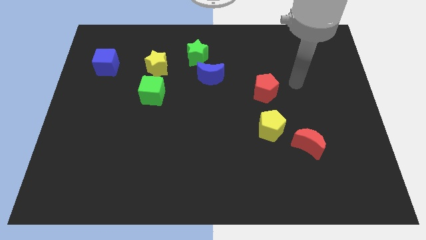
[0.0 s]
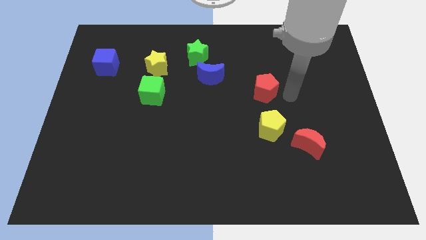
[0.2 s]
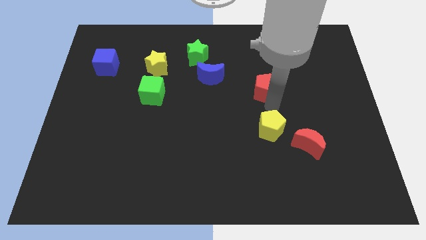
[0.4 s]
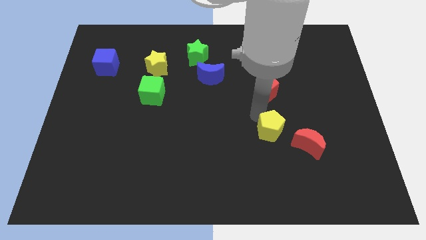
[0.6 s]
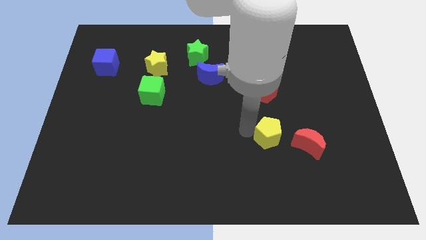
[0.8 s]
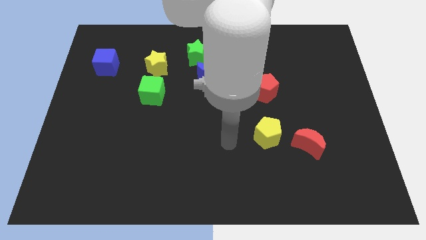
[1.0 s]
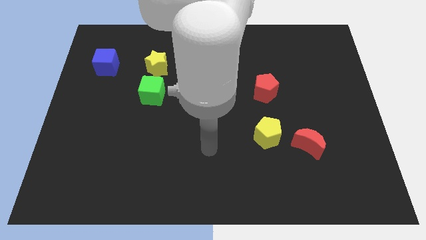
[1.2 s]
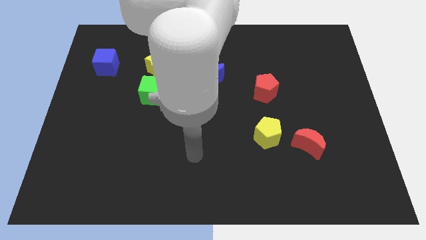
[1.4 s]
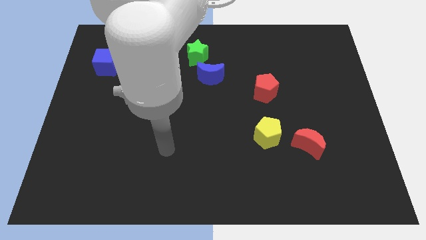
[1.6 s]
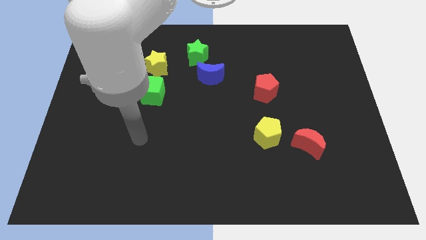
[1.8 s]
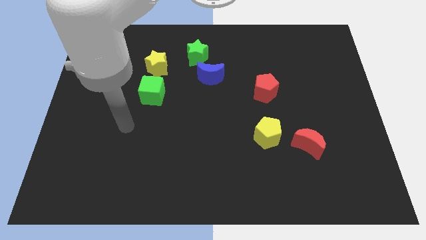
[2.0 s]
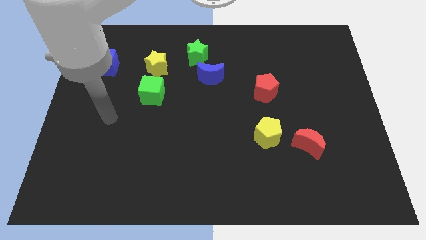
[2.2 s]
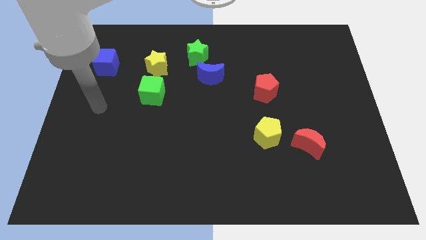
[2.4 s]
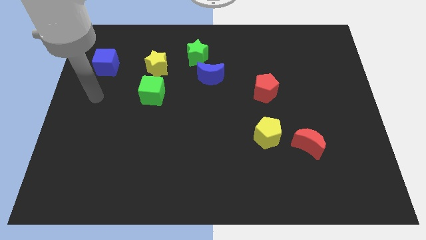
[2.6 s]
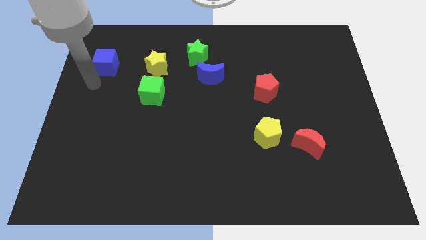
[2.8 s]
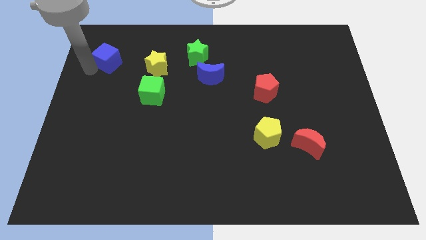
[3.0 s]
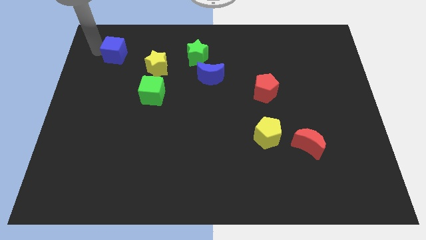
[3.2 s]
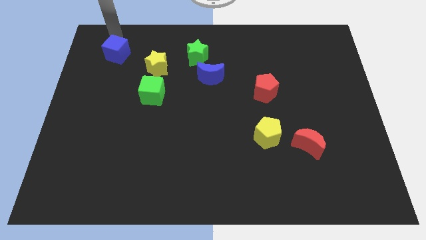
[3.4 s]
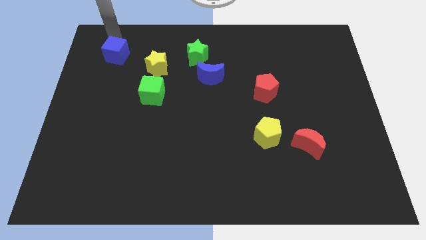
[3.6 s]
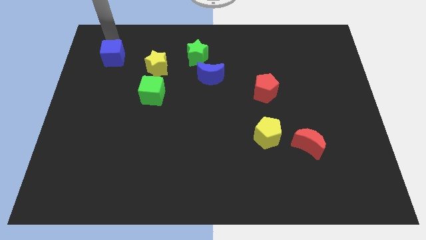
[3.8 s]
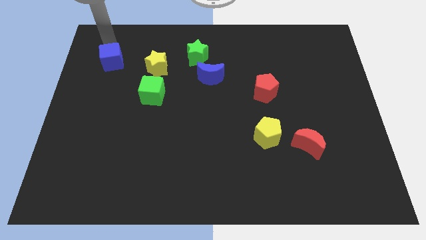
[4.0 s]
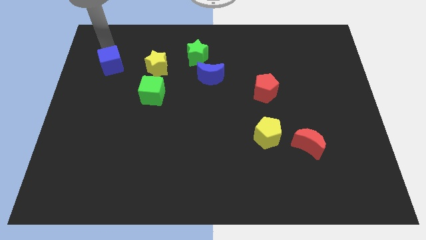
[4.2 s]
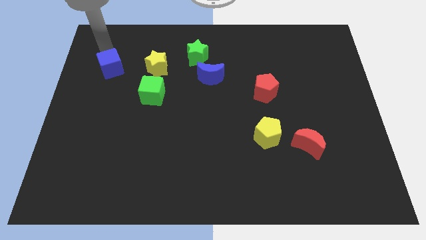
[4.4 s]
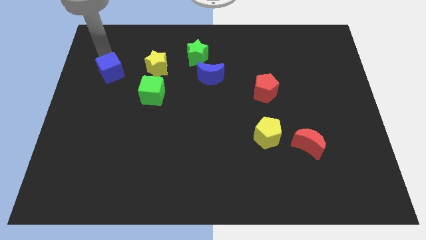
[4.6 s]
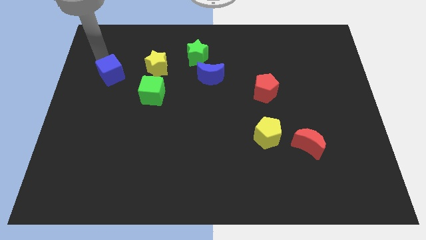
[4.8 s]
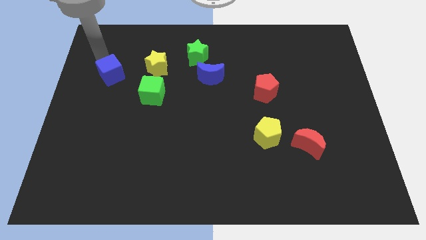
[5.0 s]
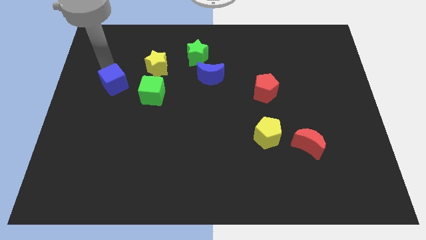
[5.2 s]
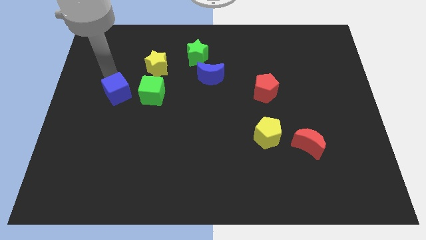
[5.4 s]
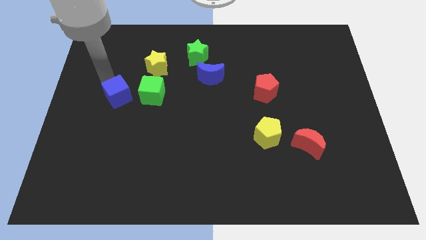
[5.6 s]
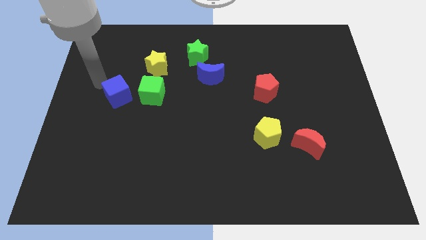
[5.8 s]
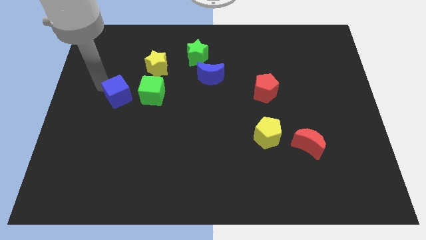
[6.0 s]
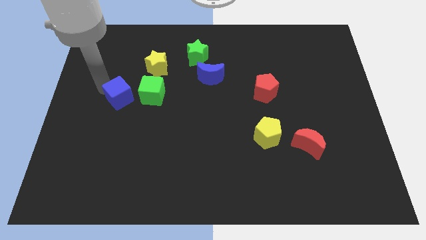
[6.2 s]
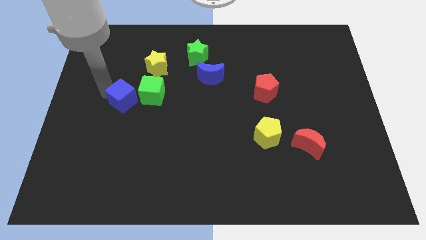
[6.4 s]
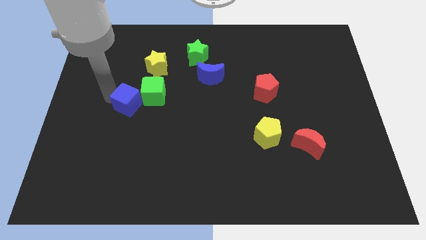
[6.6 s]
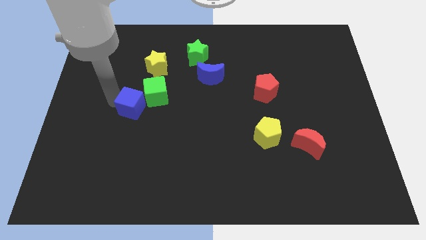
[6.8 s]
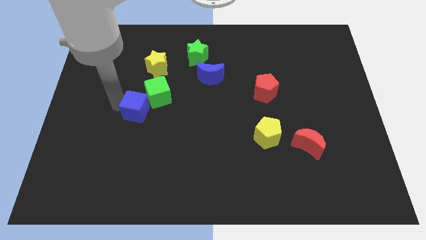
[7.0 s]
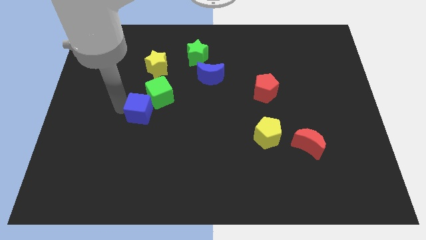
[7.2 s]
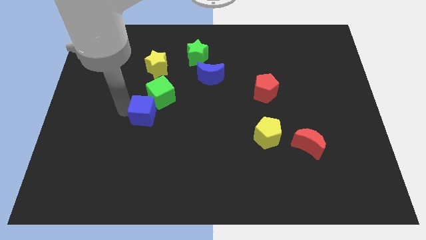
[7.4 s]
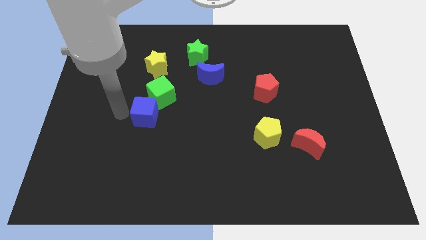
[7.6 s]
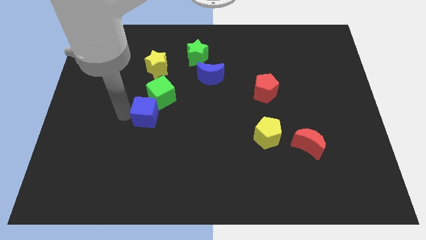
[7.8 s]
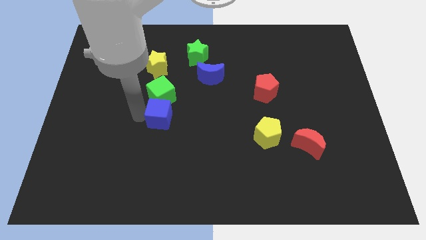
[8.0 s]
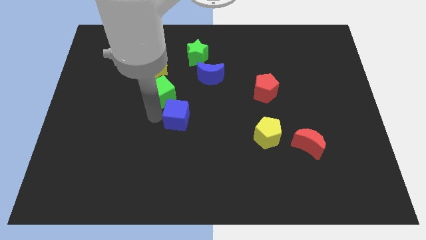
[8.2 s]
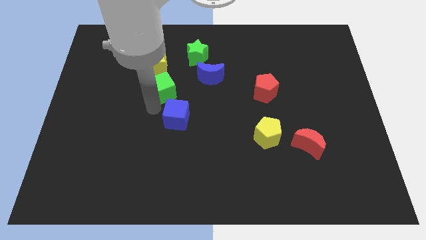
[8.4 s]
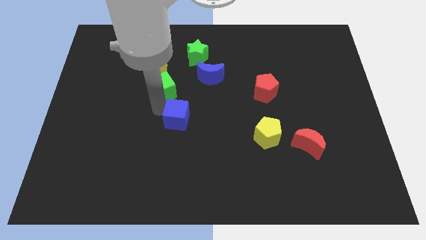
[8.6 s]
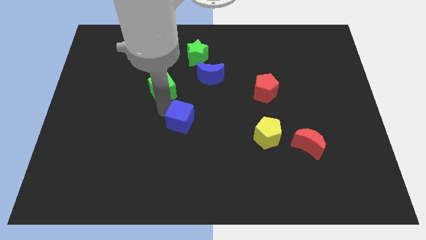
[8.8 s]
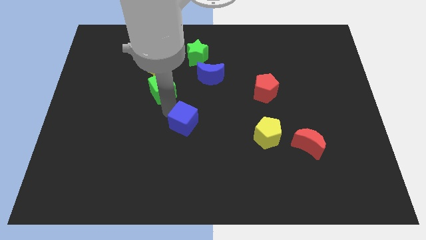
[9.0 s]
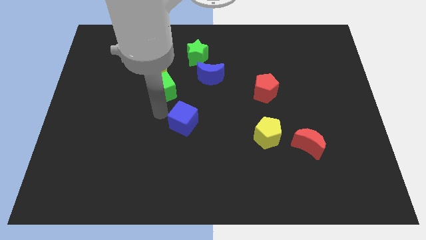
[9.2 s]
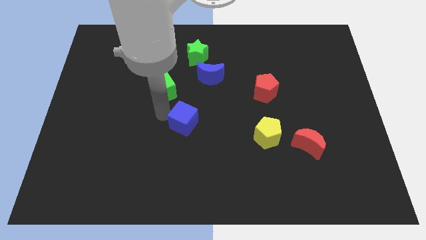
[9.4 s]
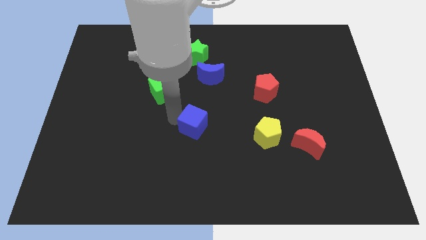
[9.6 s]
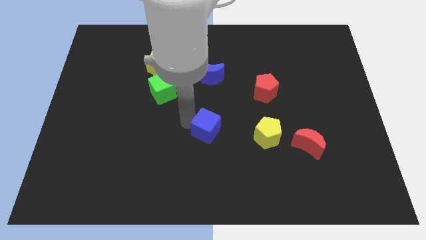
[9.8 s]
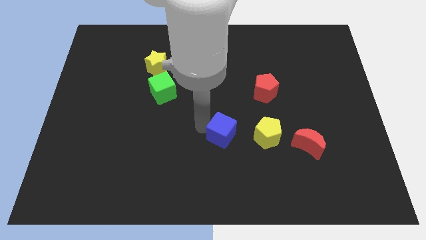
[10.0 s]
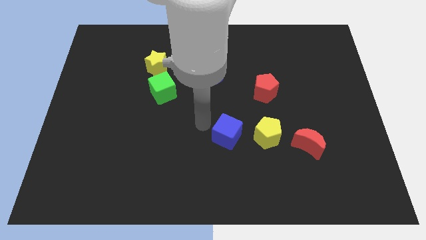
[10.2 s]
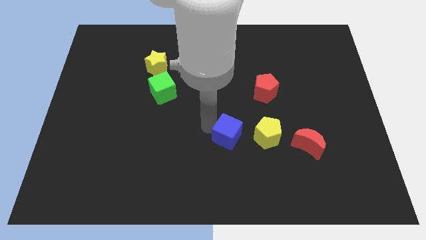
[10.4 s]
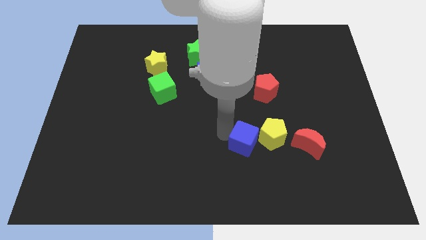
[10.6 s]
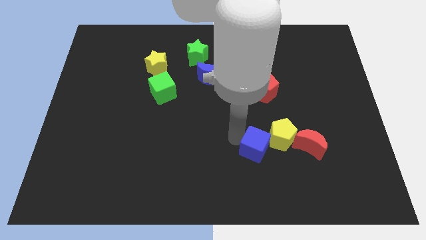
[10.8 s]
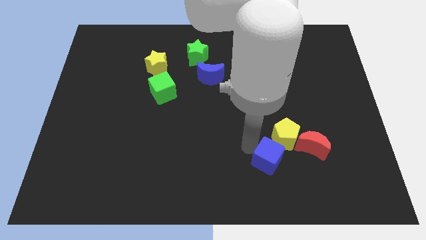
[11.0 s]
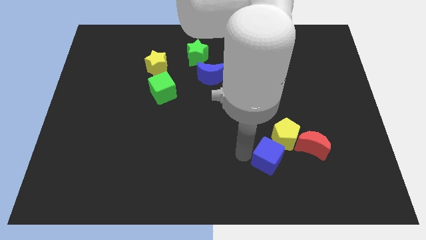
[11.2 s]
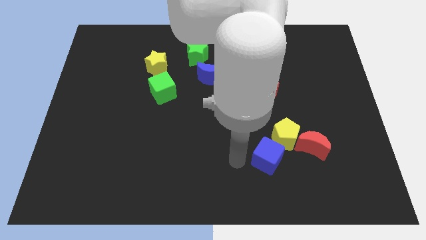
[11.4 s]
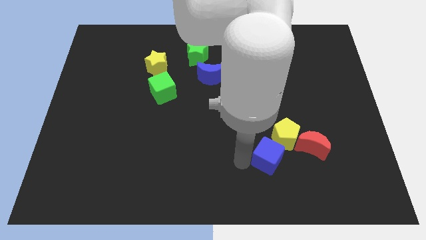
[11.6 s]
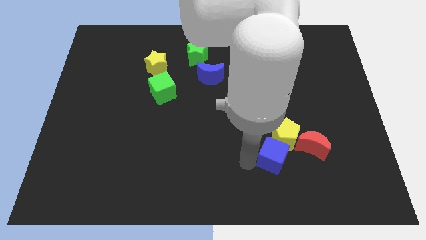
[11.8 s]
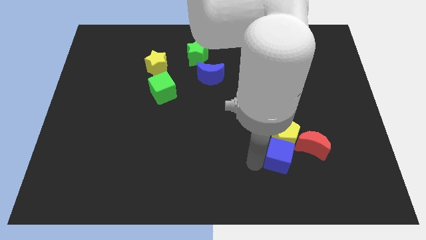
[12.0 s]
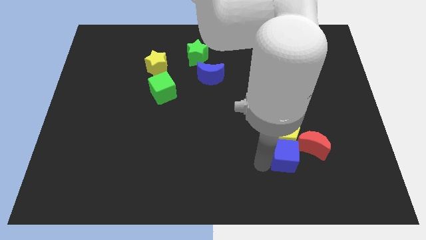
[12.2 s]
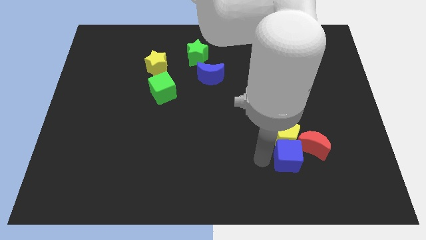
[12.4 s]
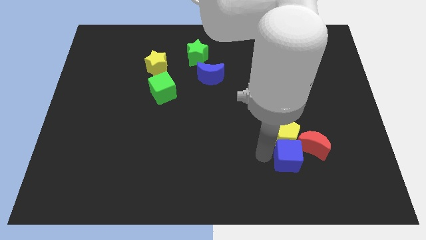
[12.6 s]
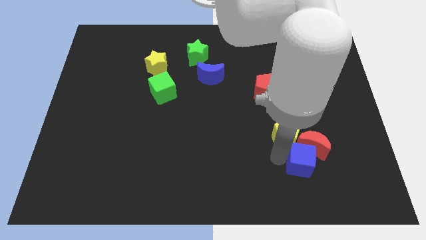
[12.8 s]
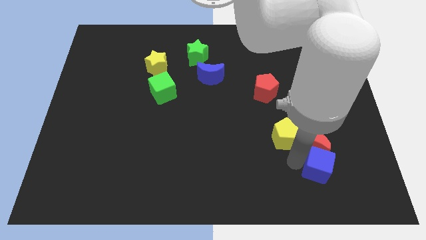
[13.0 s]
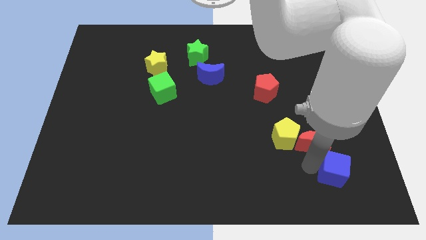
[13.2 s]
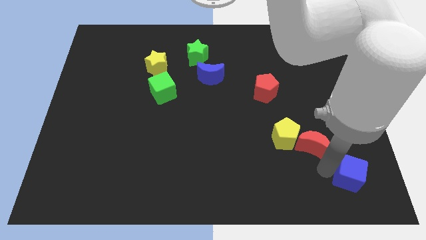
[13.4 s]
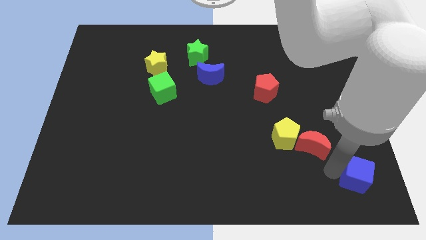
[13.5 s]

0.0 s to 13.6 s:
push the blue cube to the bottom right corner
